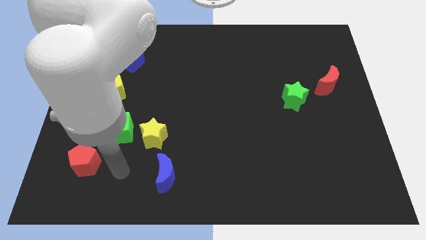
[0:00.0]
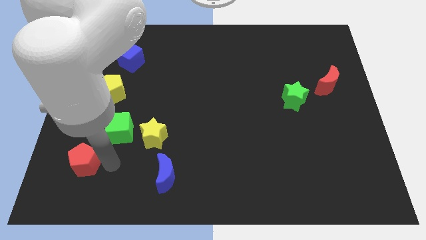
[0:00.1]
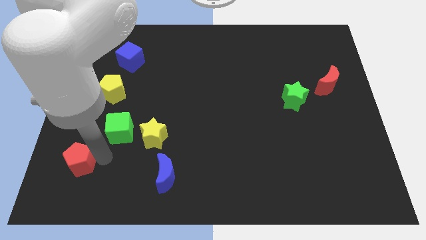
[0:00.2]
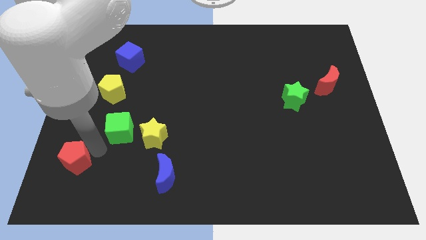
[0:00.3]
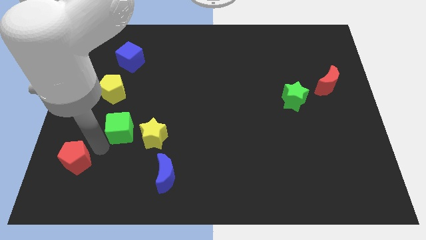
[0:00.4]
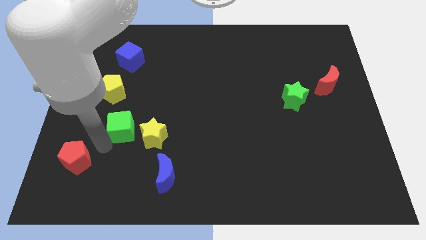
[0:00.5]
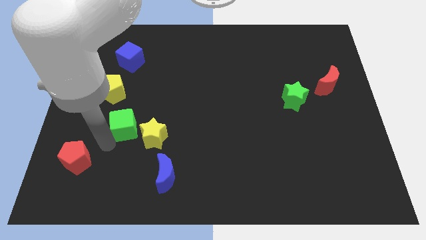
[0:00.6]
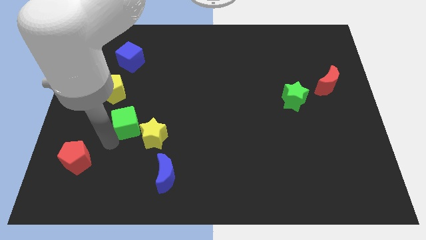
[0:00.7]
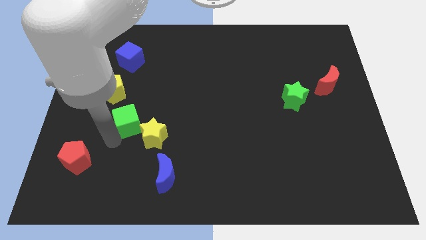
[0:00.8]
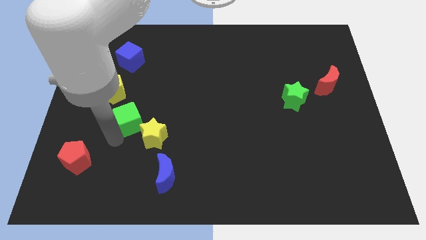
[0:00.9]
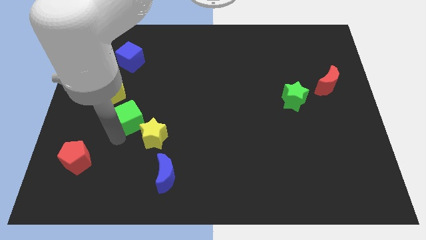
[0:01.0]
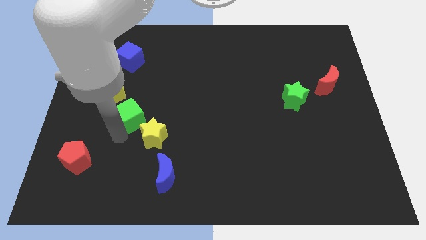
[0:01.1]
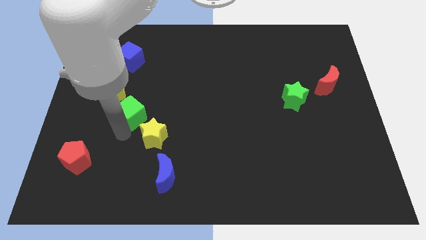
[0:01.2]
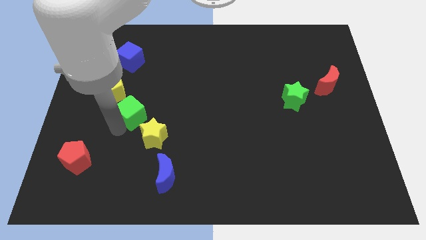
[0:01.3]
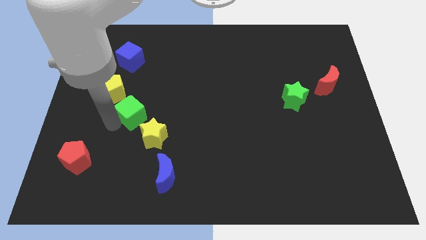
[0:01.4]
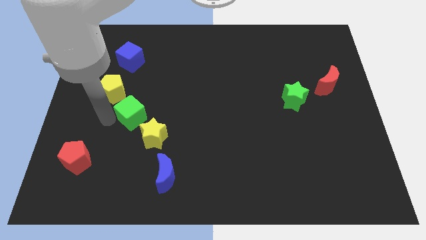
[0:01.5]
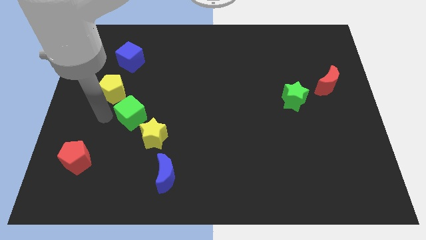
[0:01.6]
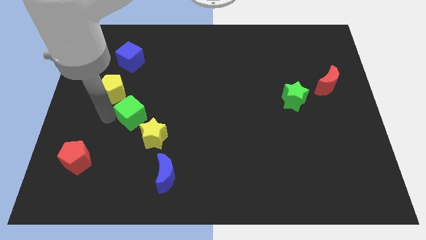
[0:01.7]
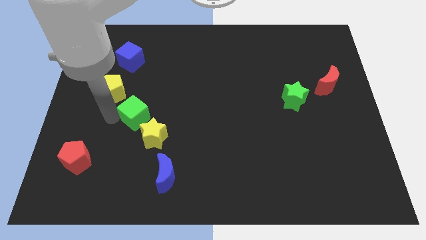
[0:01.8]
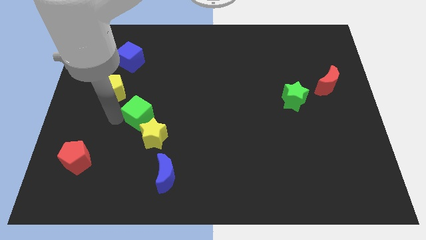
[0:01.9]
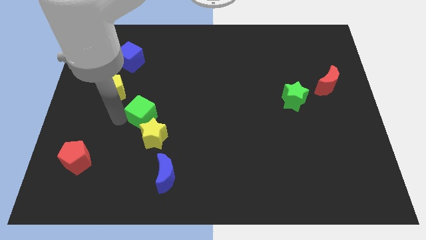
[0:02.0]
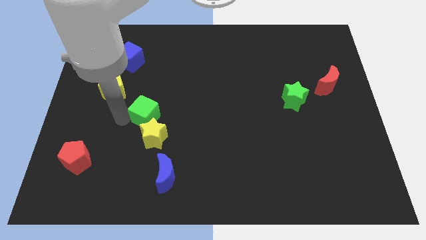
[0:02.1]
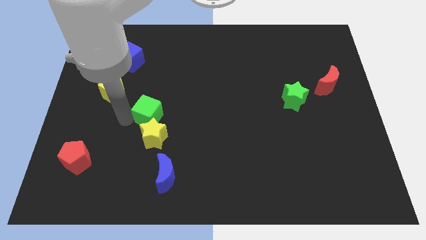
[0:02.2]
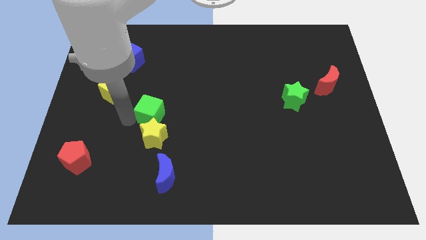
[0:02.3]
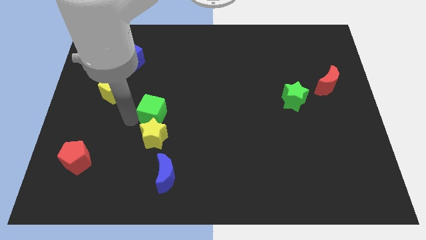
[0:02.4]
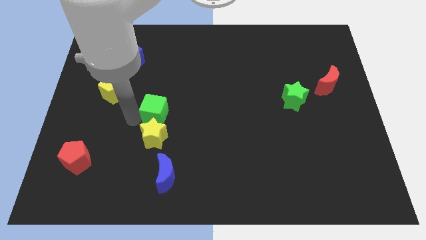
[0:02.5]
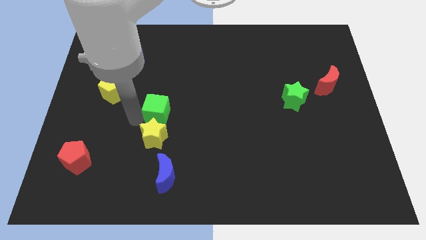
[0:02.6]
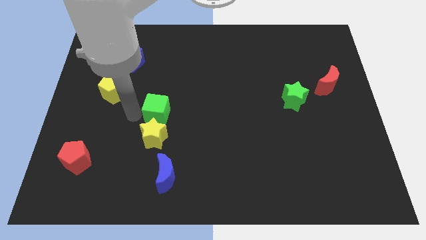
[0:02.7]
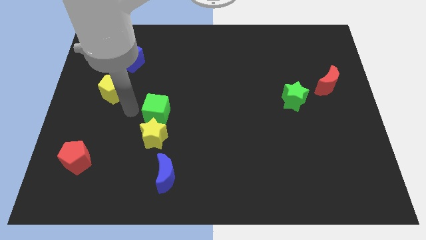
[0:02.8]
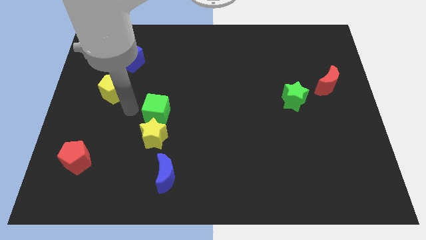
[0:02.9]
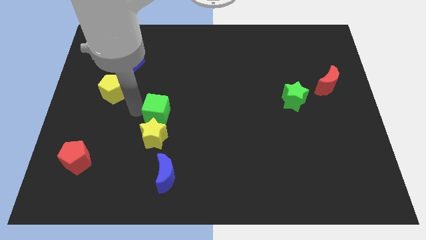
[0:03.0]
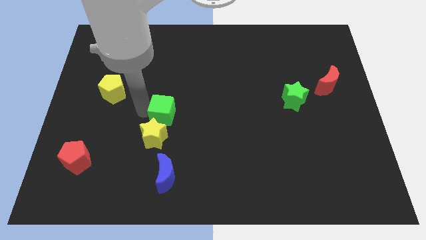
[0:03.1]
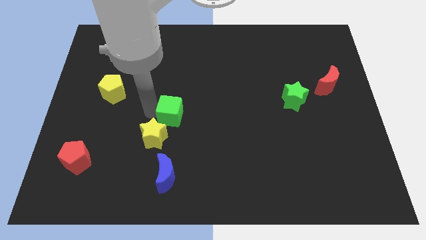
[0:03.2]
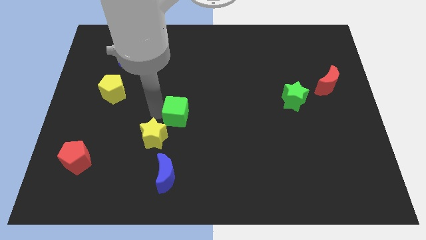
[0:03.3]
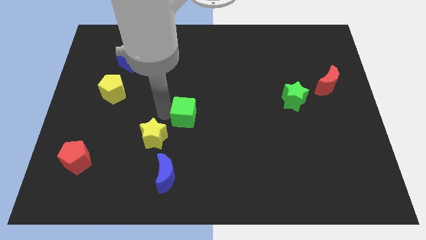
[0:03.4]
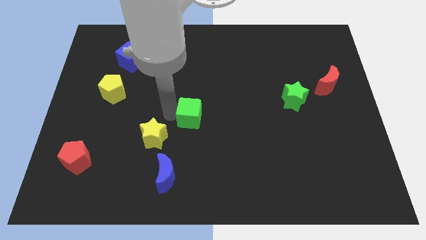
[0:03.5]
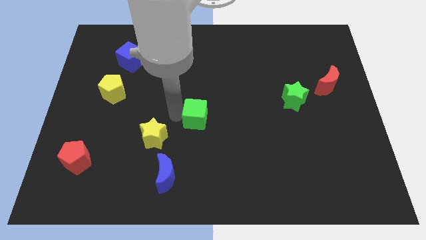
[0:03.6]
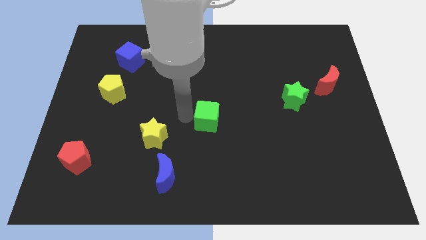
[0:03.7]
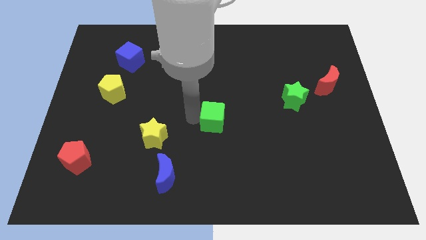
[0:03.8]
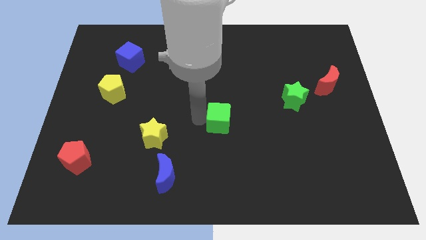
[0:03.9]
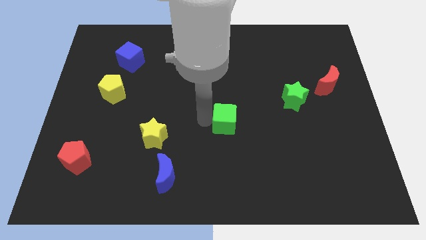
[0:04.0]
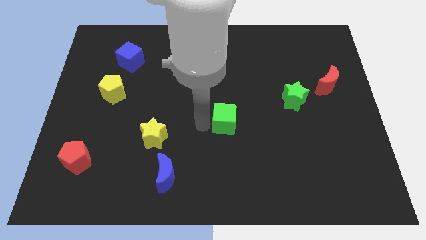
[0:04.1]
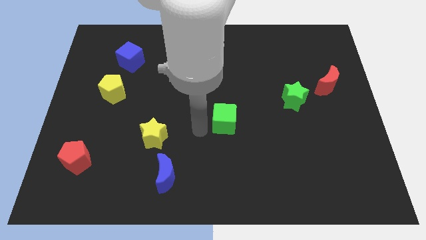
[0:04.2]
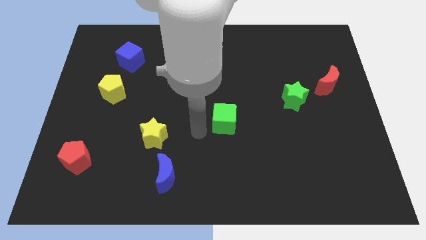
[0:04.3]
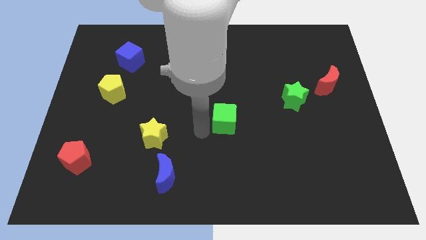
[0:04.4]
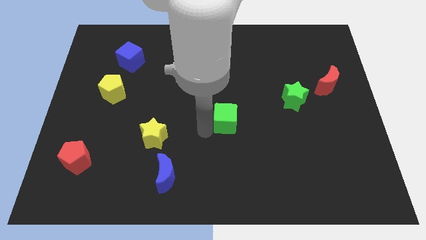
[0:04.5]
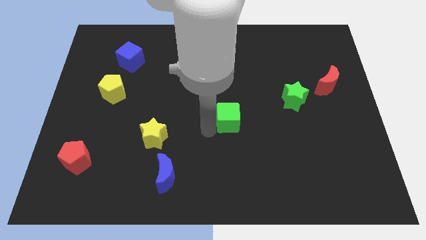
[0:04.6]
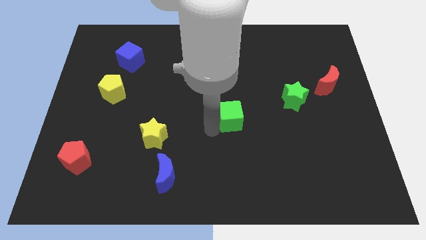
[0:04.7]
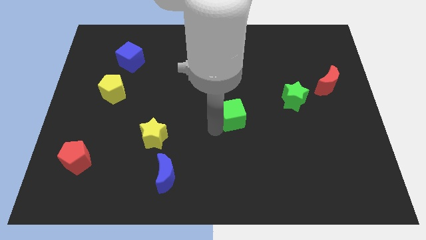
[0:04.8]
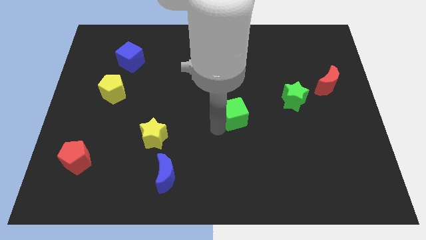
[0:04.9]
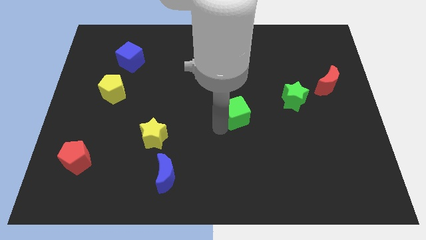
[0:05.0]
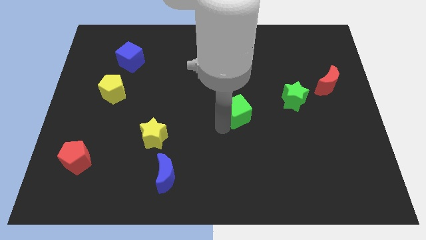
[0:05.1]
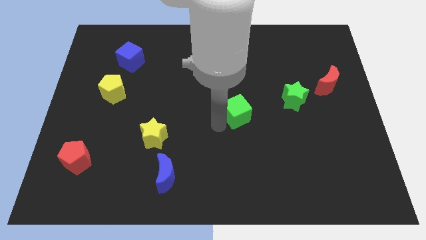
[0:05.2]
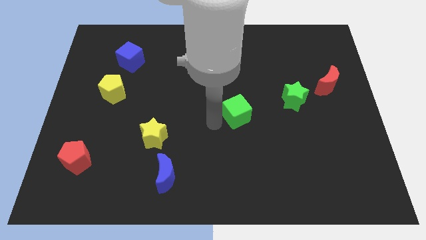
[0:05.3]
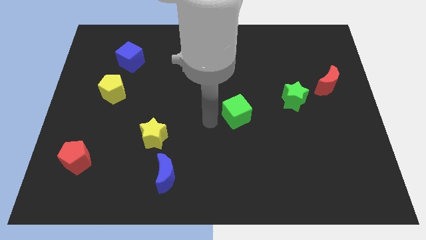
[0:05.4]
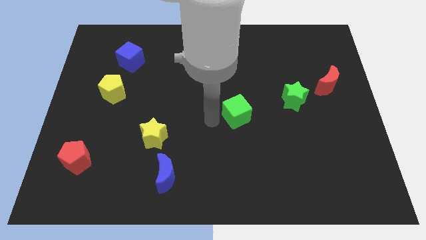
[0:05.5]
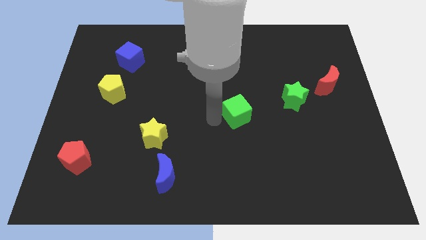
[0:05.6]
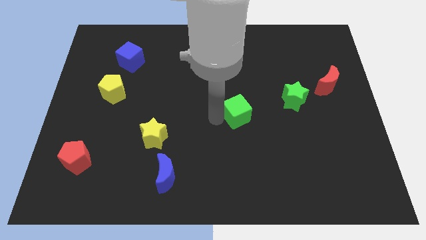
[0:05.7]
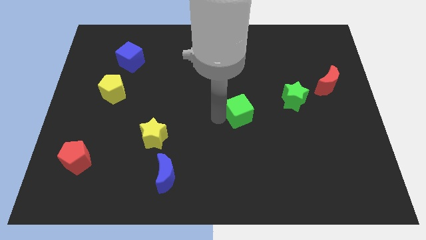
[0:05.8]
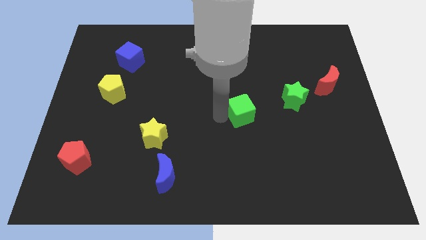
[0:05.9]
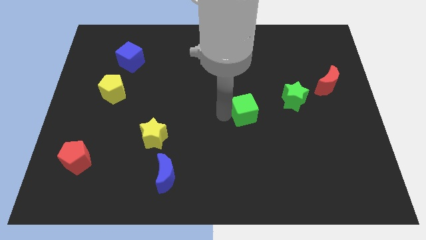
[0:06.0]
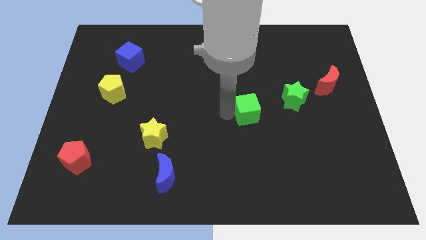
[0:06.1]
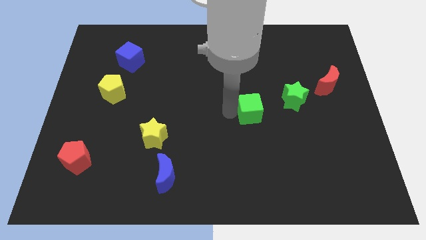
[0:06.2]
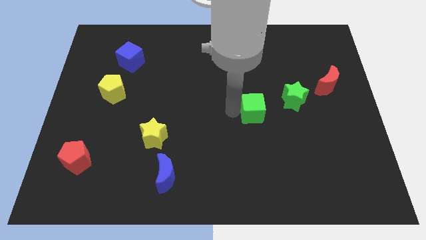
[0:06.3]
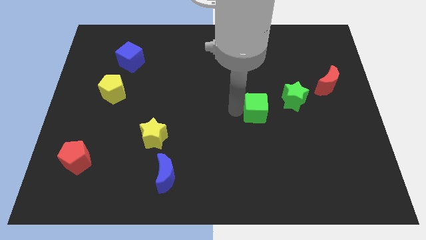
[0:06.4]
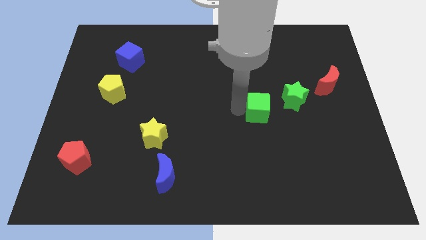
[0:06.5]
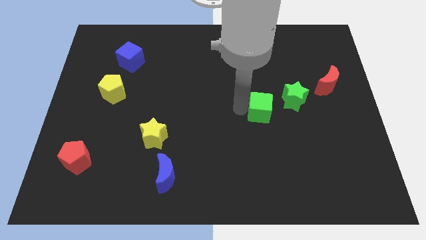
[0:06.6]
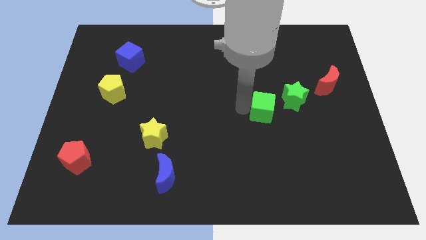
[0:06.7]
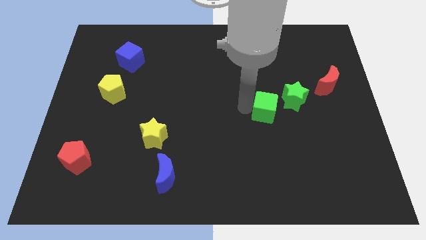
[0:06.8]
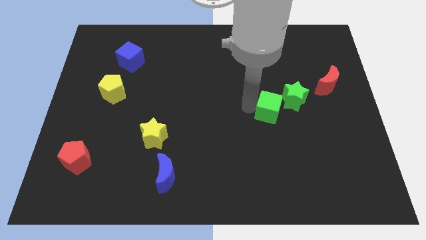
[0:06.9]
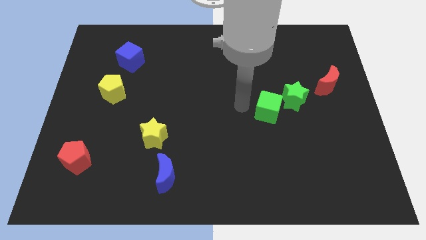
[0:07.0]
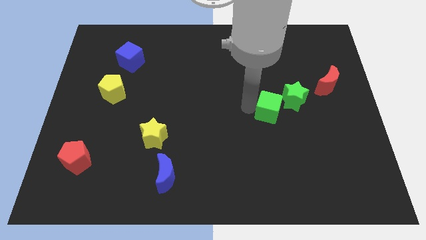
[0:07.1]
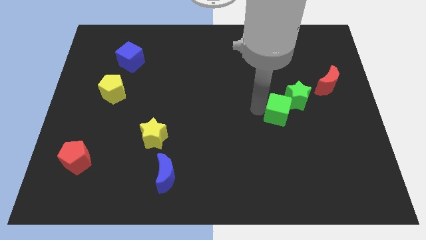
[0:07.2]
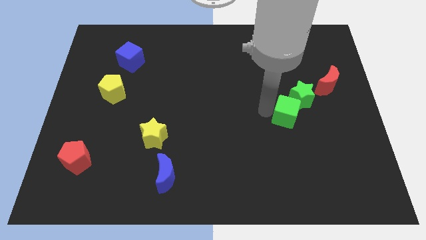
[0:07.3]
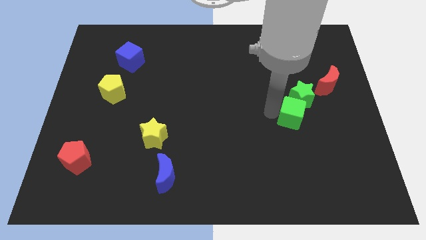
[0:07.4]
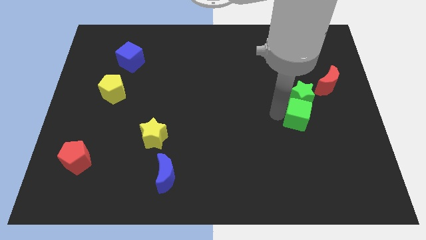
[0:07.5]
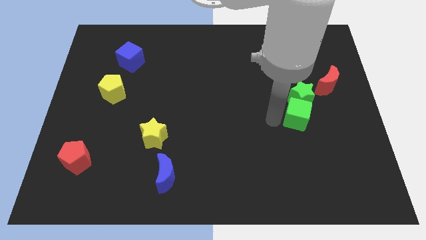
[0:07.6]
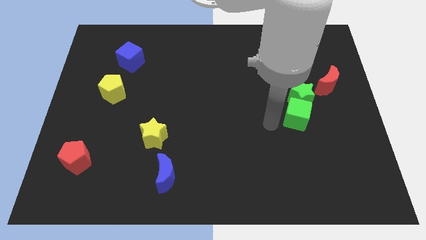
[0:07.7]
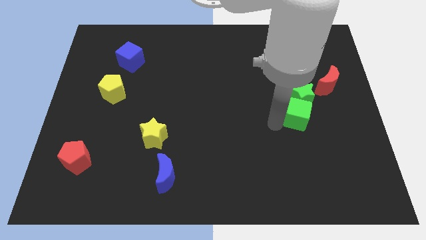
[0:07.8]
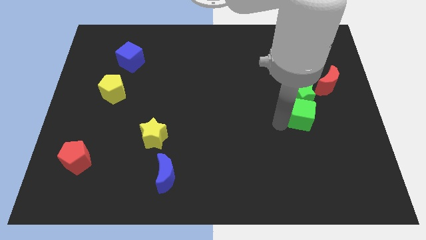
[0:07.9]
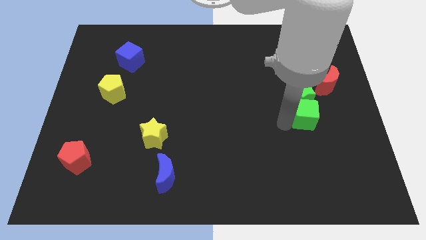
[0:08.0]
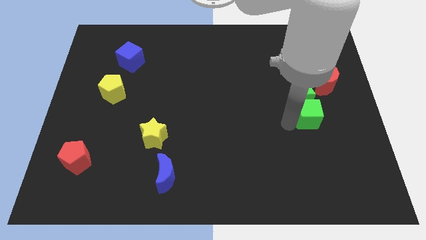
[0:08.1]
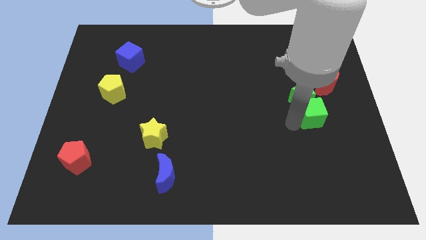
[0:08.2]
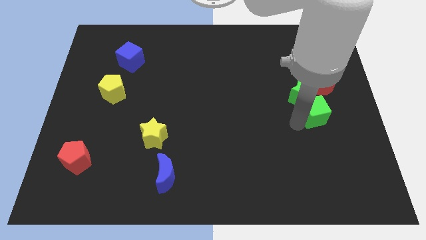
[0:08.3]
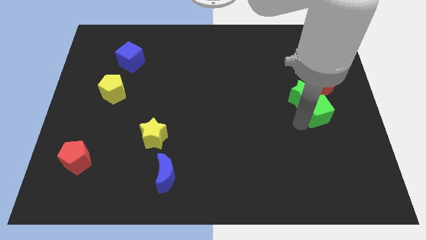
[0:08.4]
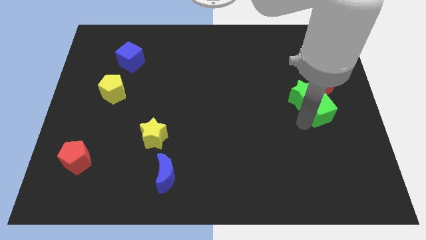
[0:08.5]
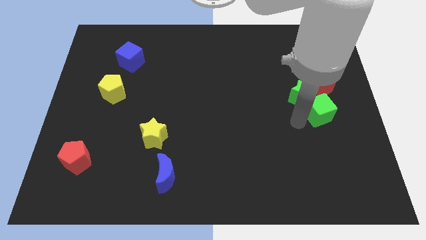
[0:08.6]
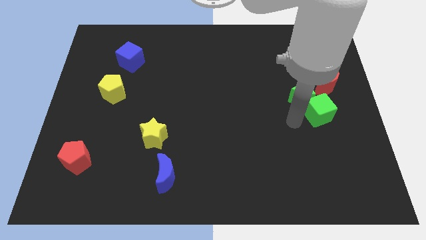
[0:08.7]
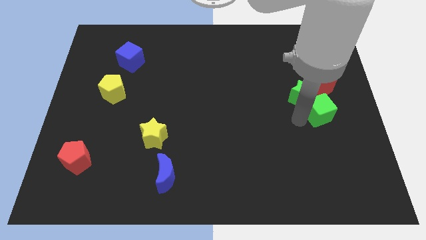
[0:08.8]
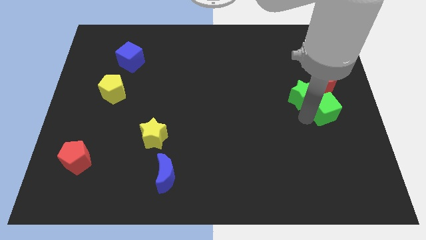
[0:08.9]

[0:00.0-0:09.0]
slide the green cube to the center right
